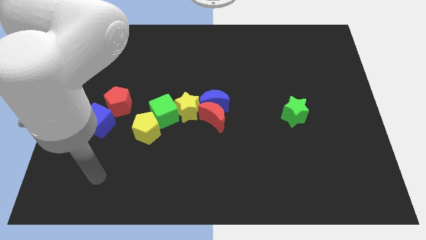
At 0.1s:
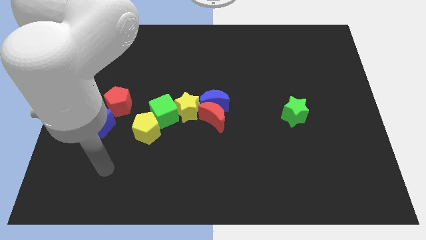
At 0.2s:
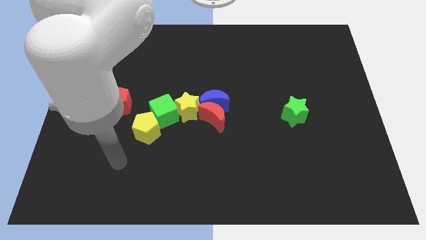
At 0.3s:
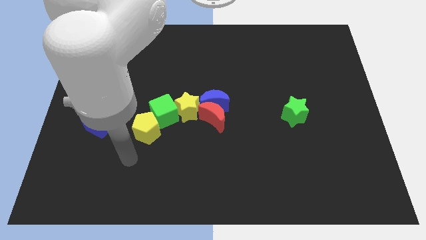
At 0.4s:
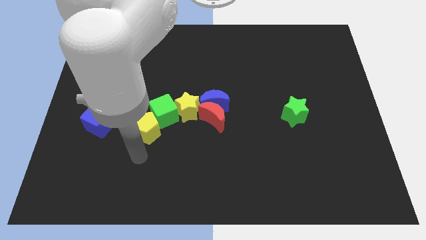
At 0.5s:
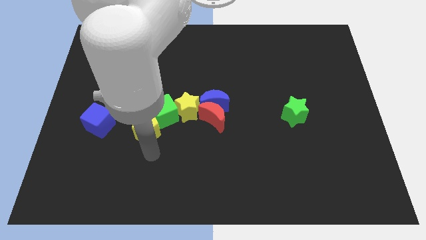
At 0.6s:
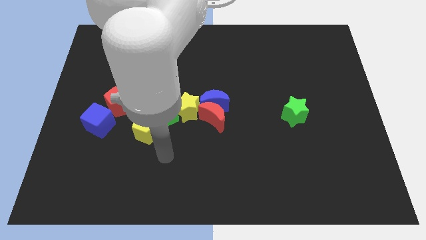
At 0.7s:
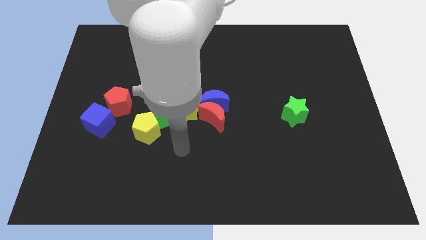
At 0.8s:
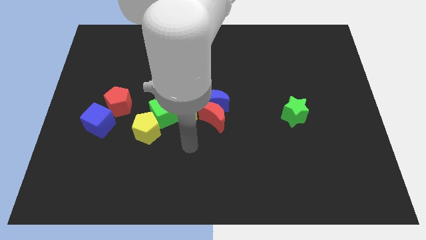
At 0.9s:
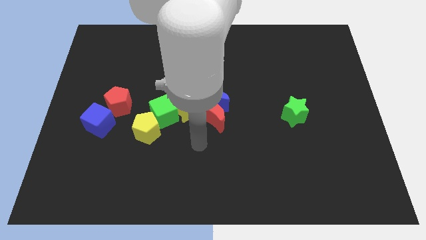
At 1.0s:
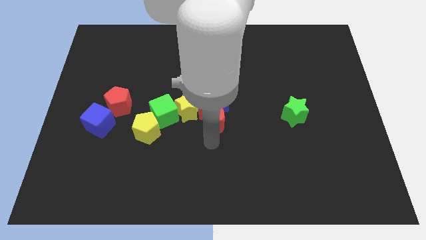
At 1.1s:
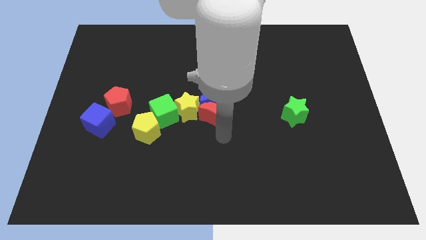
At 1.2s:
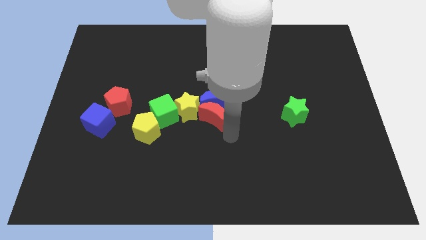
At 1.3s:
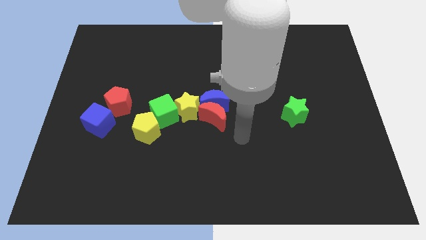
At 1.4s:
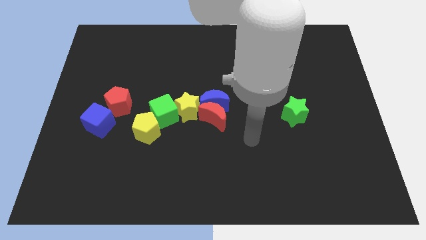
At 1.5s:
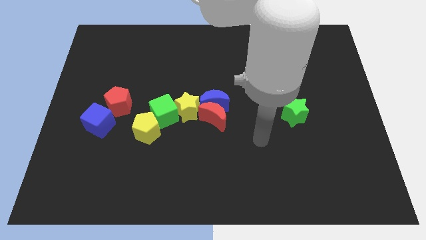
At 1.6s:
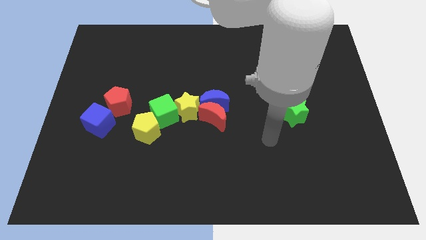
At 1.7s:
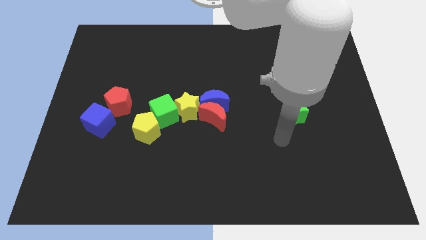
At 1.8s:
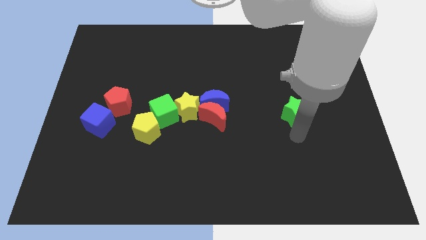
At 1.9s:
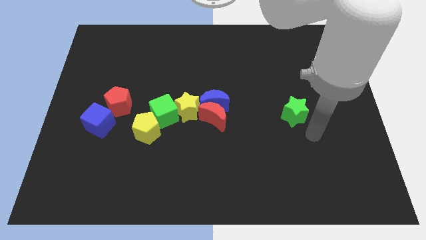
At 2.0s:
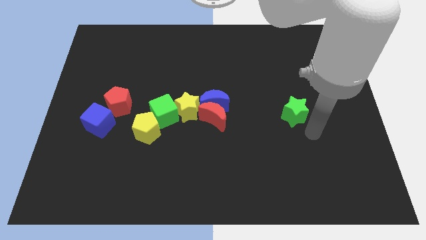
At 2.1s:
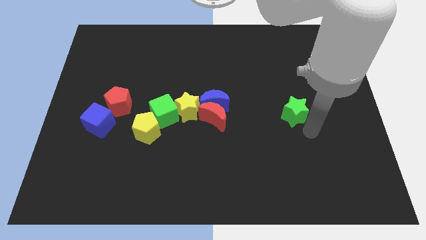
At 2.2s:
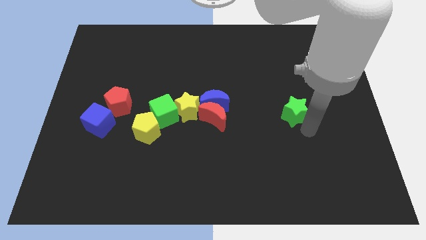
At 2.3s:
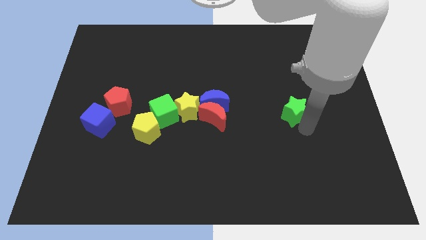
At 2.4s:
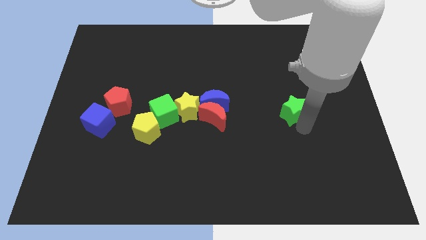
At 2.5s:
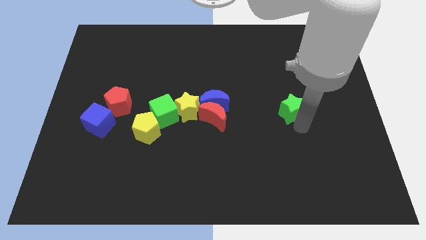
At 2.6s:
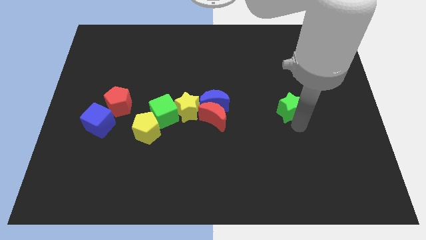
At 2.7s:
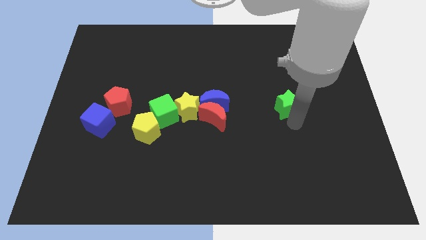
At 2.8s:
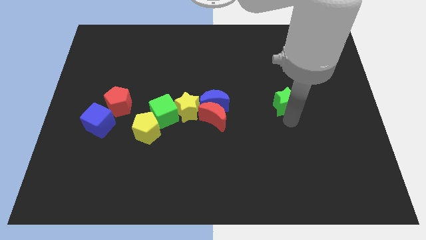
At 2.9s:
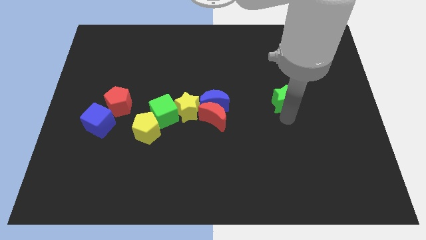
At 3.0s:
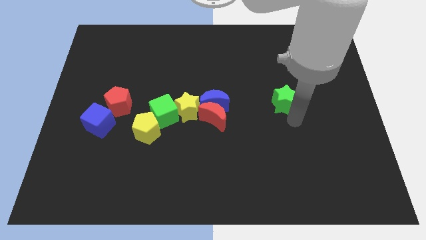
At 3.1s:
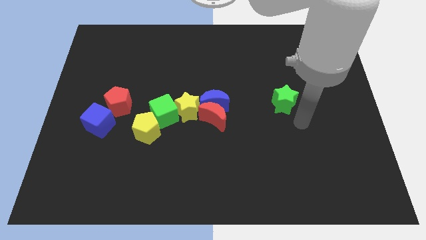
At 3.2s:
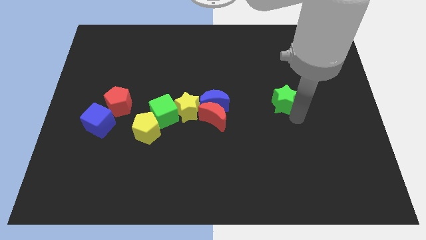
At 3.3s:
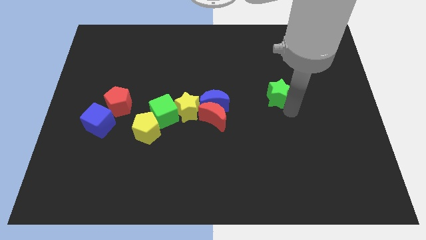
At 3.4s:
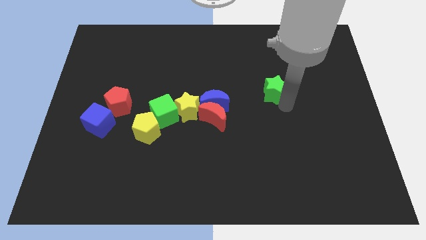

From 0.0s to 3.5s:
move the green star upwards and left diagonally a bit

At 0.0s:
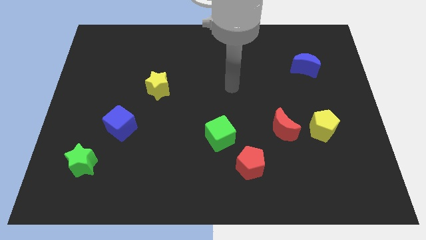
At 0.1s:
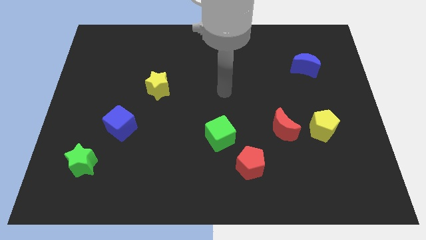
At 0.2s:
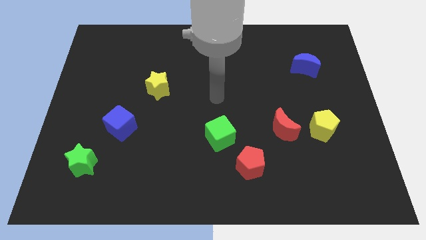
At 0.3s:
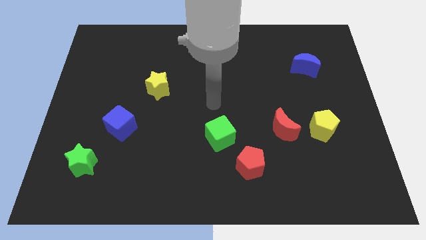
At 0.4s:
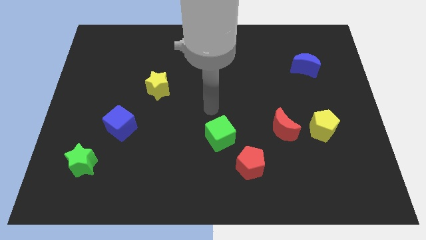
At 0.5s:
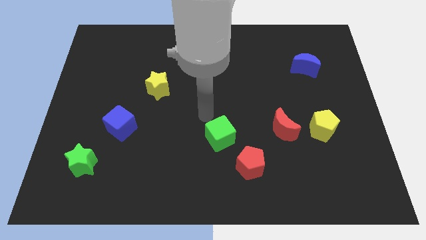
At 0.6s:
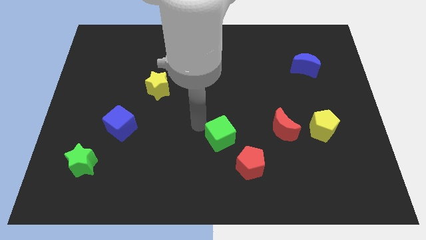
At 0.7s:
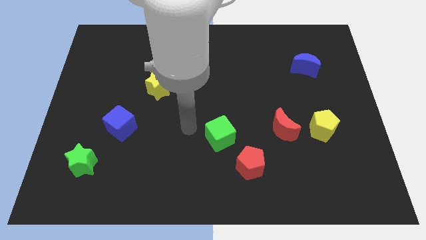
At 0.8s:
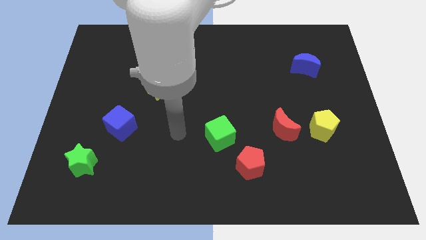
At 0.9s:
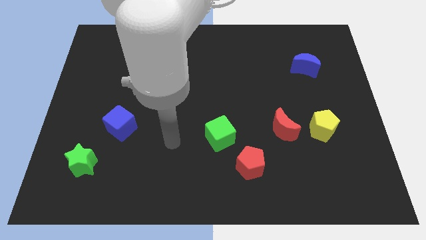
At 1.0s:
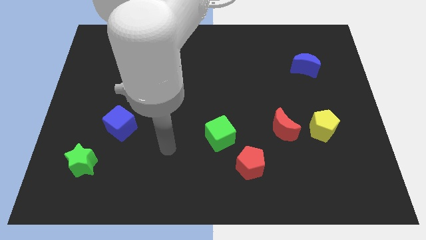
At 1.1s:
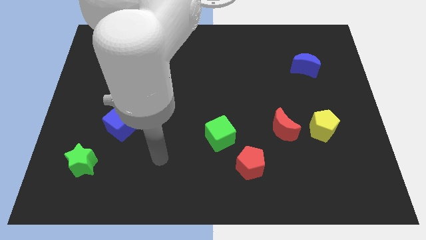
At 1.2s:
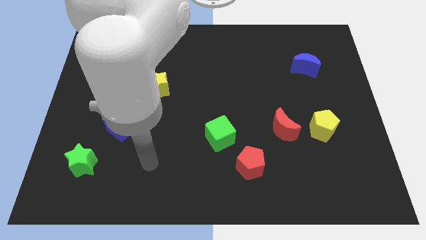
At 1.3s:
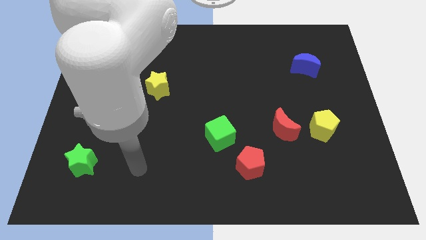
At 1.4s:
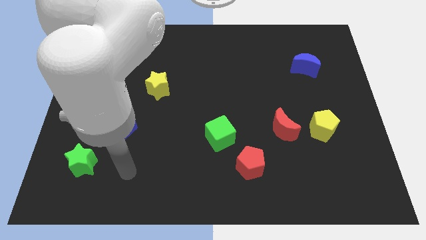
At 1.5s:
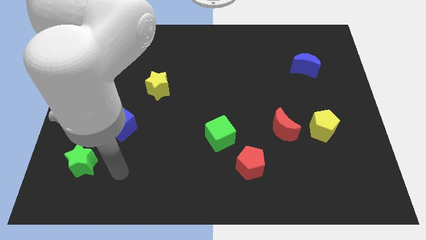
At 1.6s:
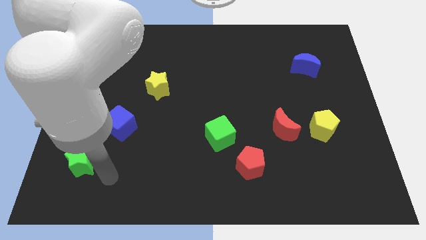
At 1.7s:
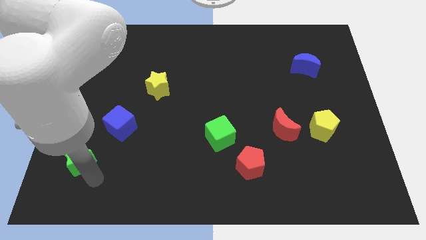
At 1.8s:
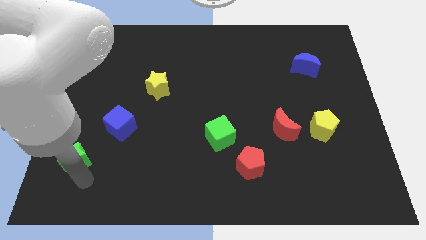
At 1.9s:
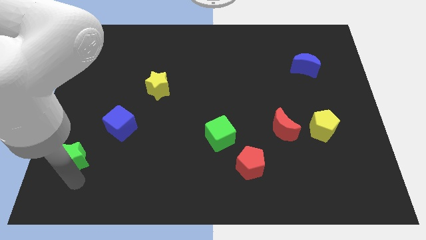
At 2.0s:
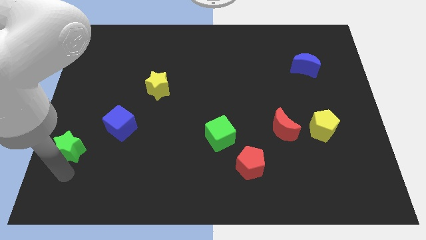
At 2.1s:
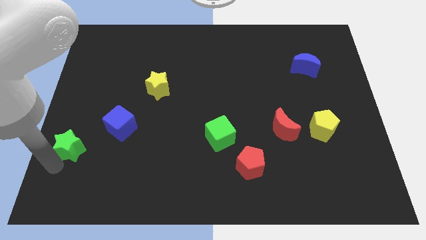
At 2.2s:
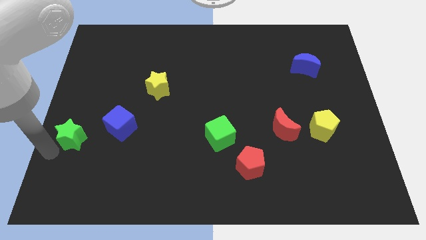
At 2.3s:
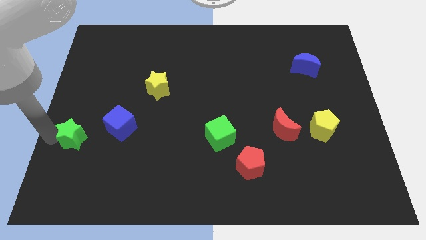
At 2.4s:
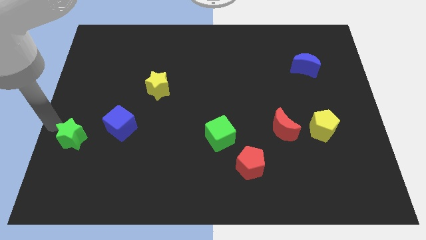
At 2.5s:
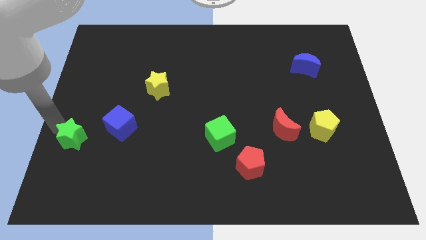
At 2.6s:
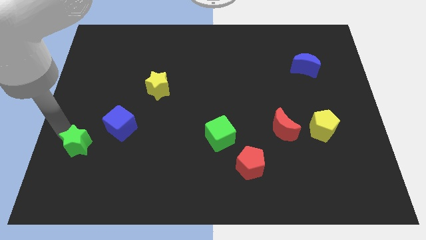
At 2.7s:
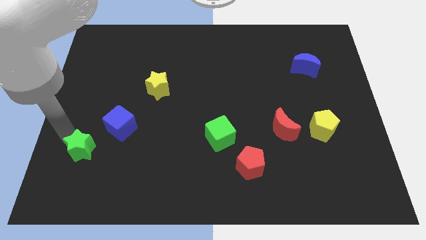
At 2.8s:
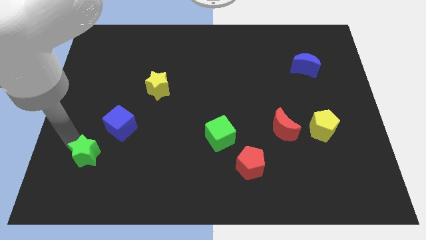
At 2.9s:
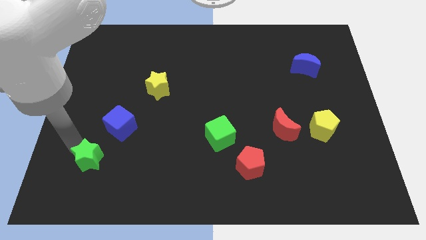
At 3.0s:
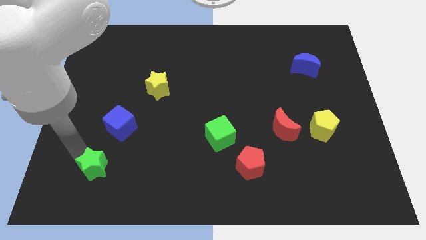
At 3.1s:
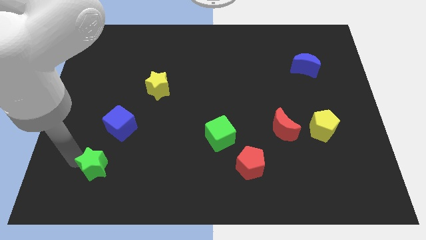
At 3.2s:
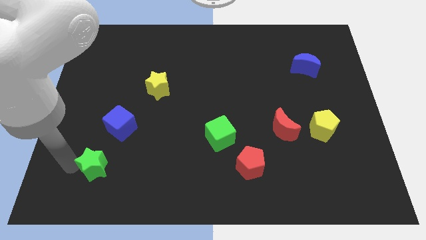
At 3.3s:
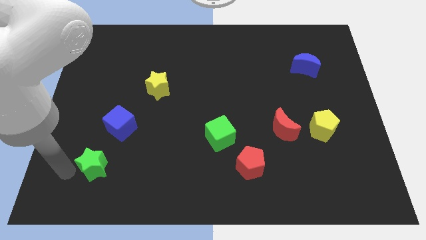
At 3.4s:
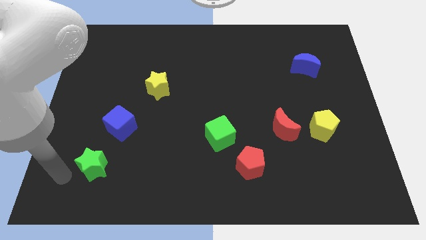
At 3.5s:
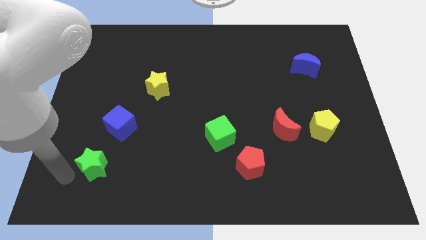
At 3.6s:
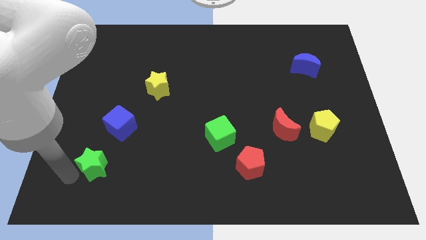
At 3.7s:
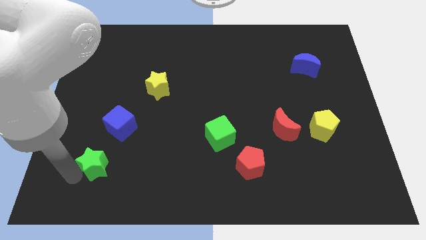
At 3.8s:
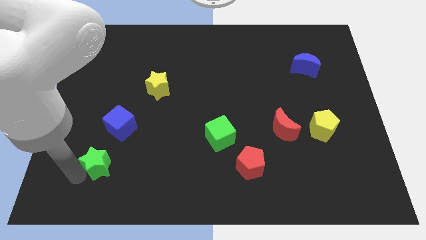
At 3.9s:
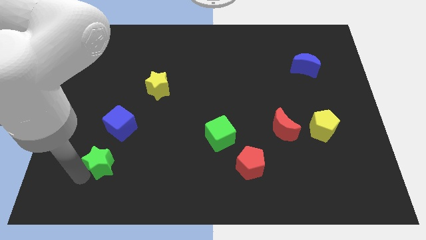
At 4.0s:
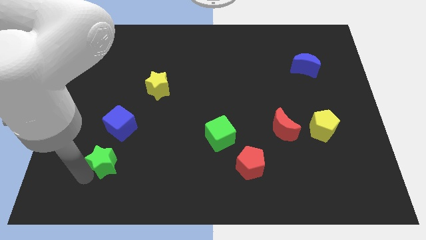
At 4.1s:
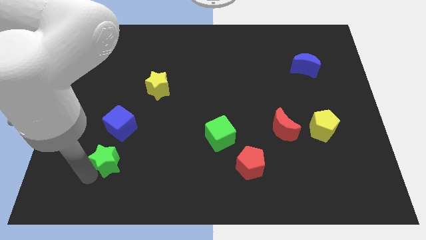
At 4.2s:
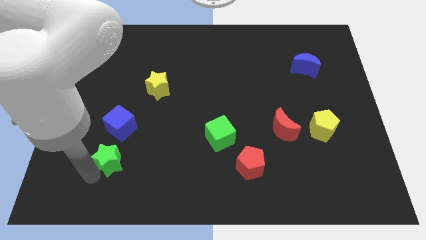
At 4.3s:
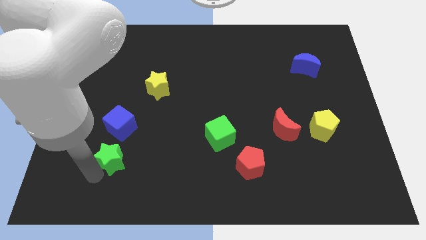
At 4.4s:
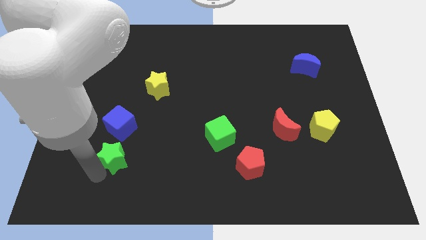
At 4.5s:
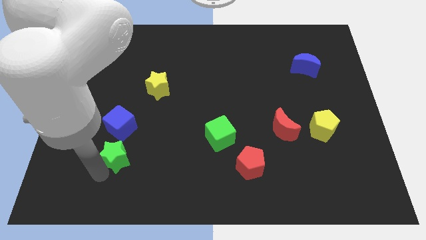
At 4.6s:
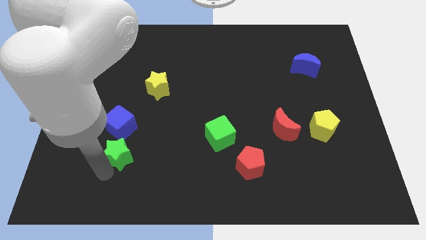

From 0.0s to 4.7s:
slide the green star somewhat right
